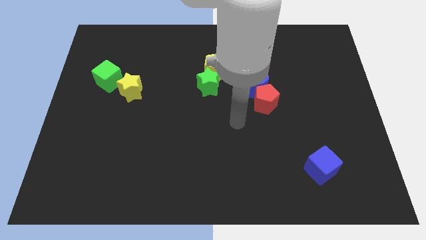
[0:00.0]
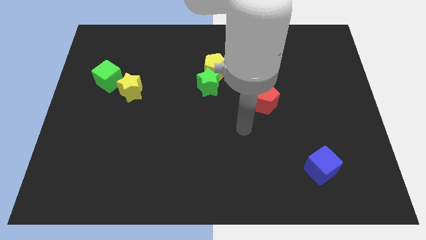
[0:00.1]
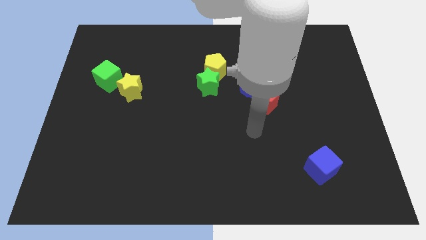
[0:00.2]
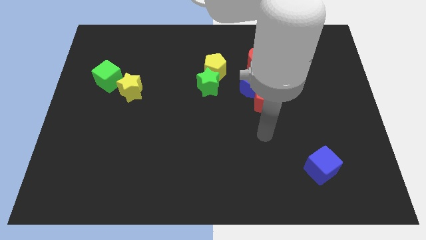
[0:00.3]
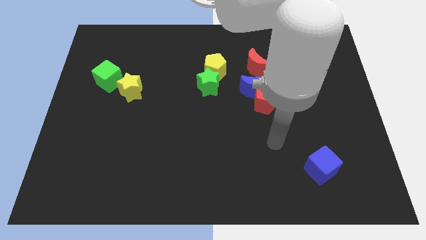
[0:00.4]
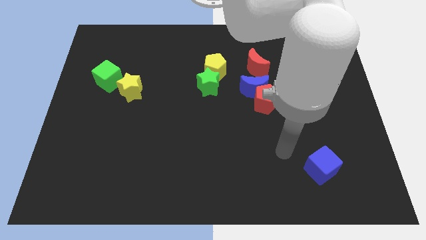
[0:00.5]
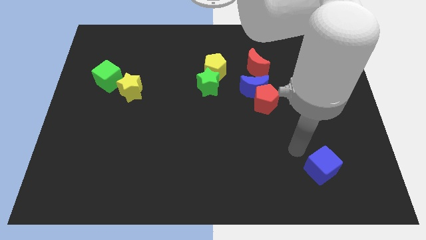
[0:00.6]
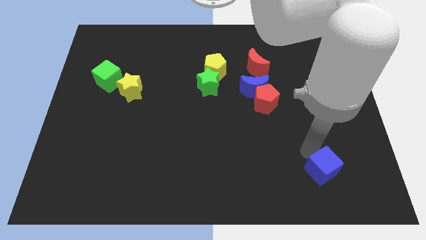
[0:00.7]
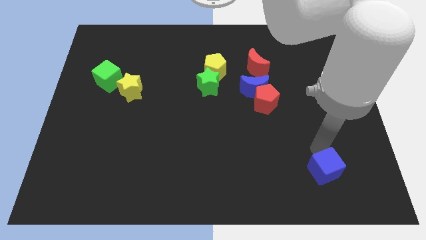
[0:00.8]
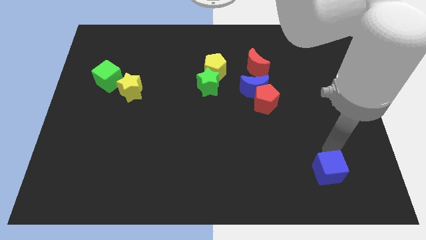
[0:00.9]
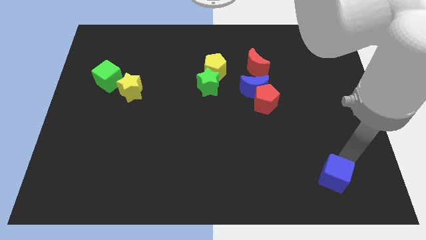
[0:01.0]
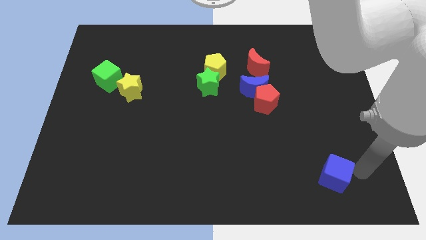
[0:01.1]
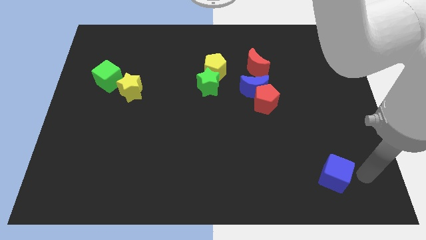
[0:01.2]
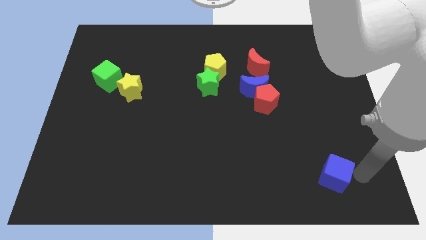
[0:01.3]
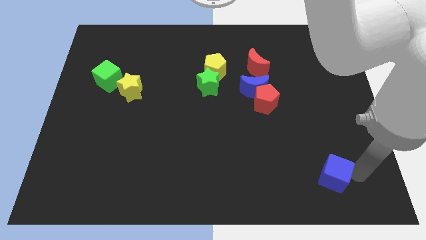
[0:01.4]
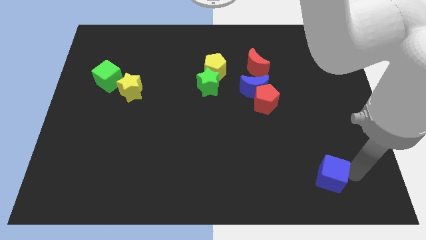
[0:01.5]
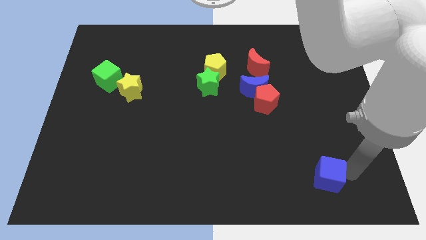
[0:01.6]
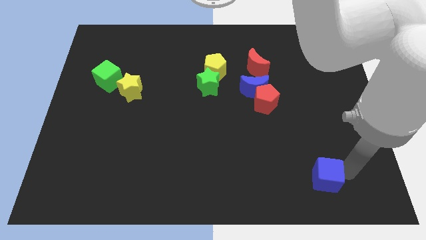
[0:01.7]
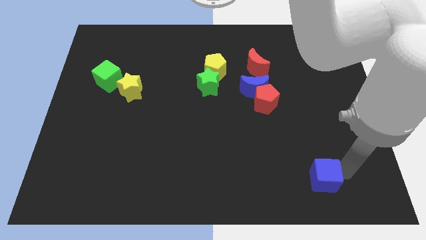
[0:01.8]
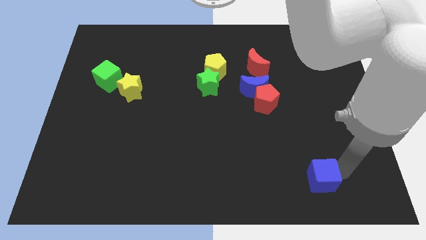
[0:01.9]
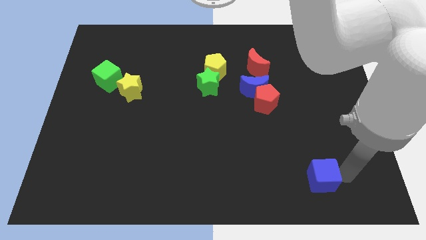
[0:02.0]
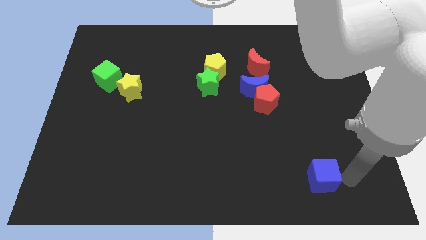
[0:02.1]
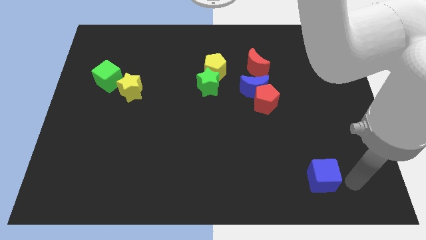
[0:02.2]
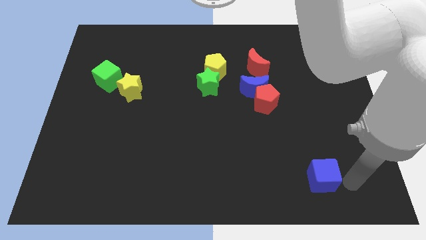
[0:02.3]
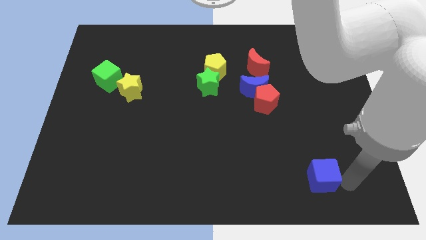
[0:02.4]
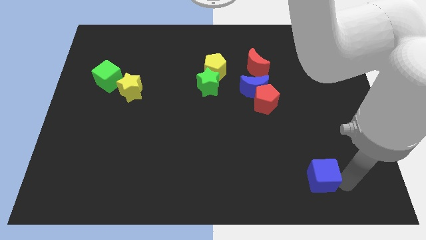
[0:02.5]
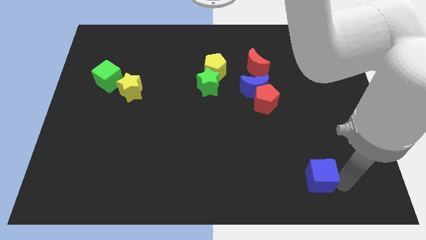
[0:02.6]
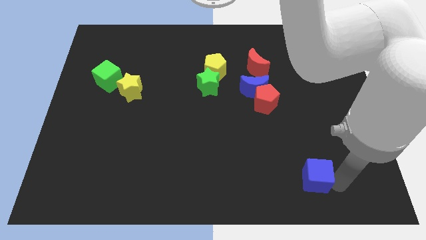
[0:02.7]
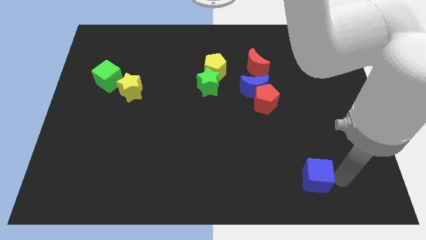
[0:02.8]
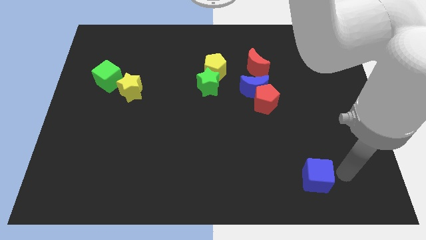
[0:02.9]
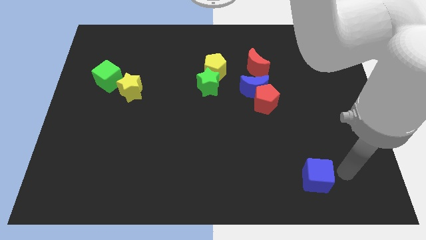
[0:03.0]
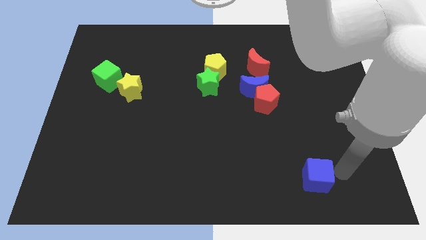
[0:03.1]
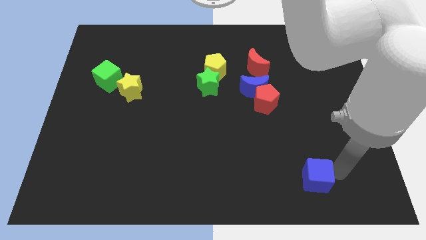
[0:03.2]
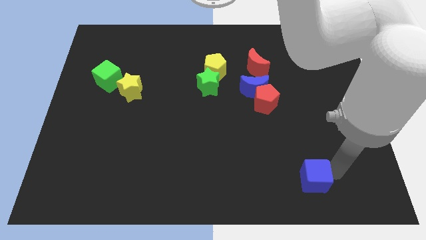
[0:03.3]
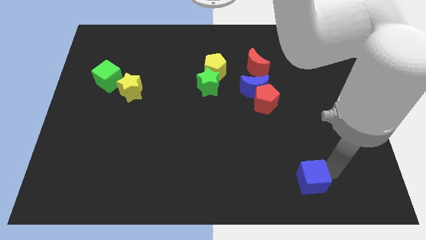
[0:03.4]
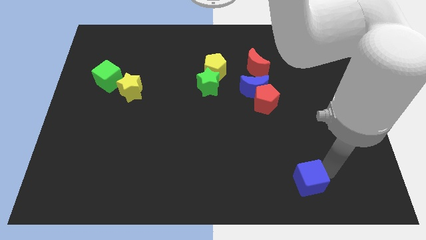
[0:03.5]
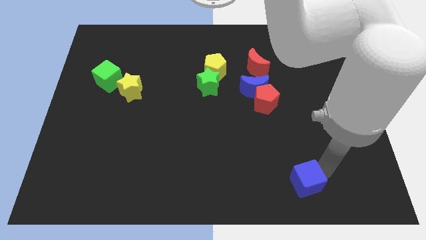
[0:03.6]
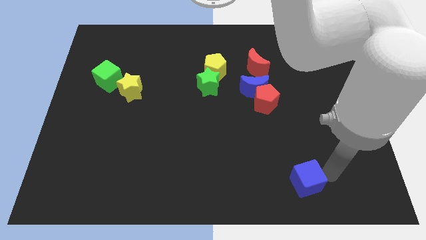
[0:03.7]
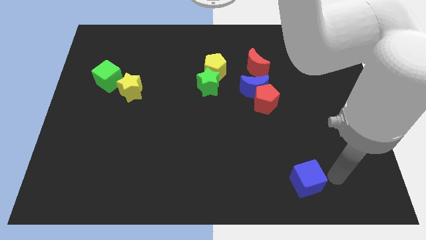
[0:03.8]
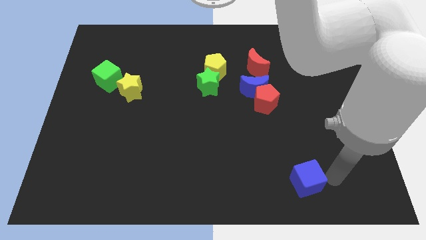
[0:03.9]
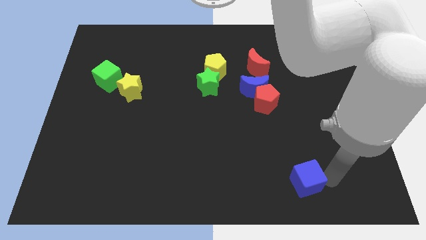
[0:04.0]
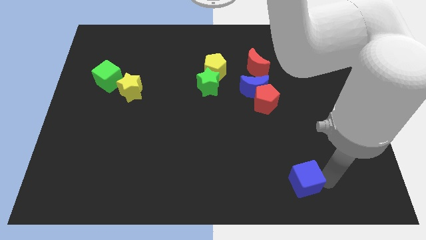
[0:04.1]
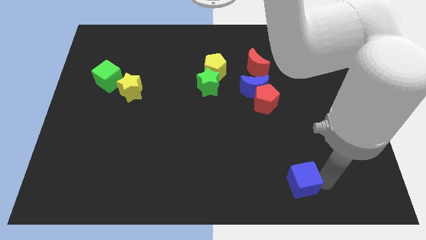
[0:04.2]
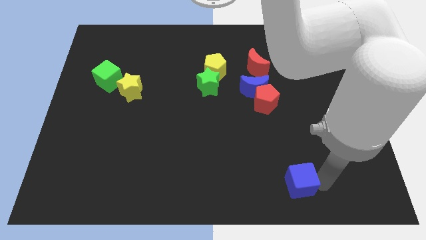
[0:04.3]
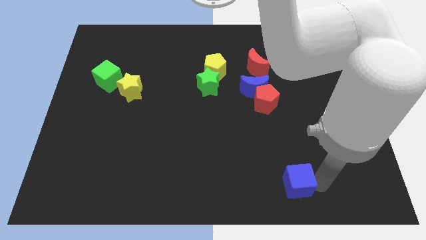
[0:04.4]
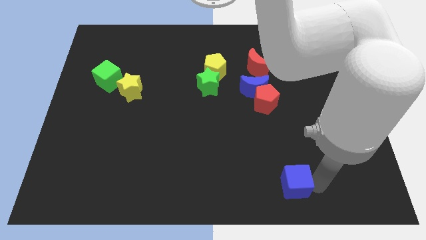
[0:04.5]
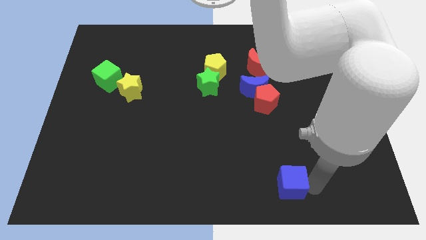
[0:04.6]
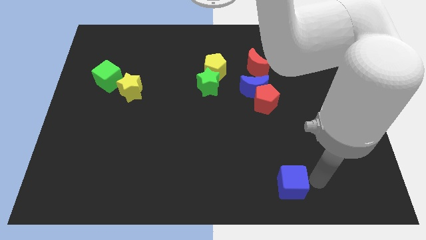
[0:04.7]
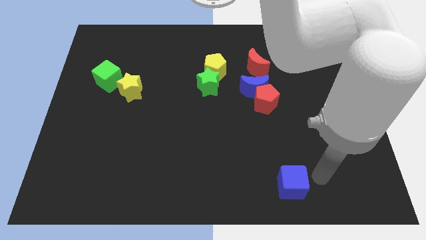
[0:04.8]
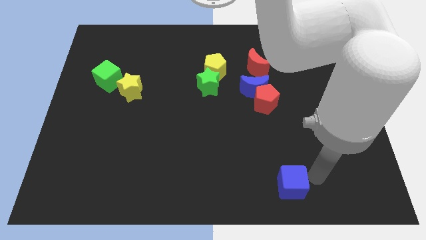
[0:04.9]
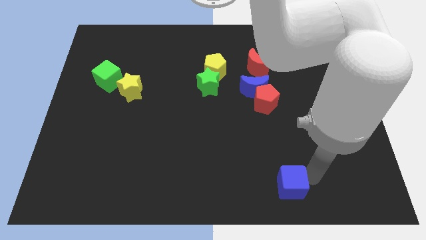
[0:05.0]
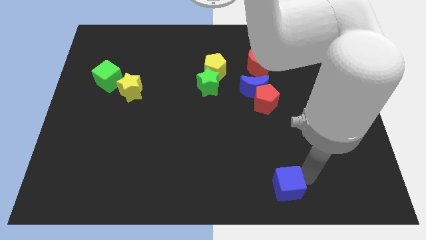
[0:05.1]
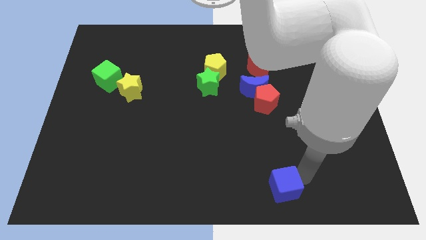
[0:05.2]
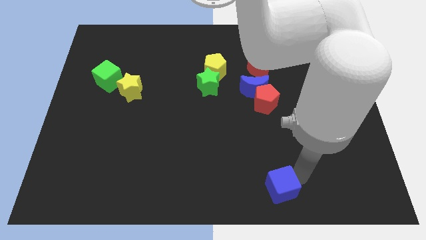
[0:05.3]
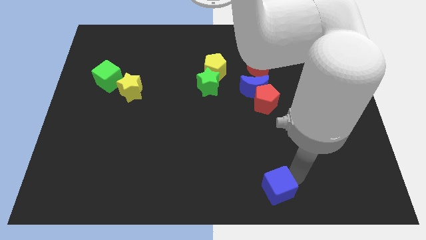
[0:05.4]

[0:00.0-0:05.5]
slide the blue cube to the bottom

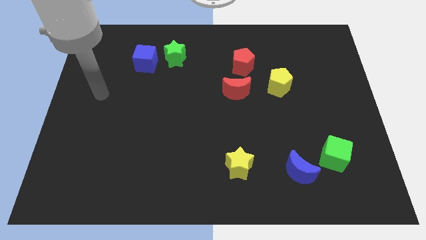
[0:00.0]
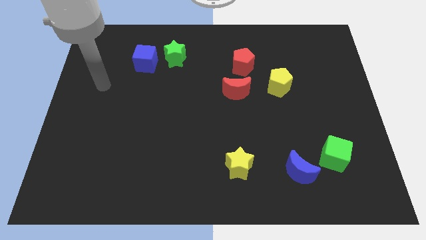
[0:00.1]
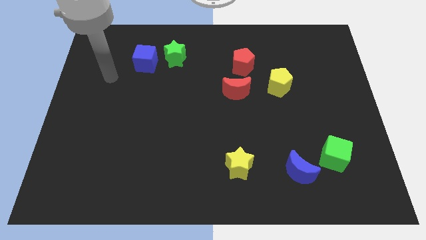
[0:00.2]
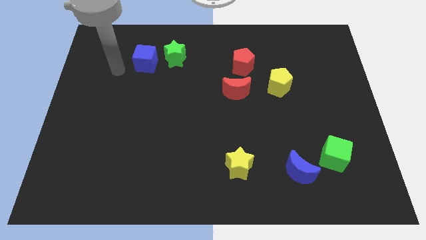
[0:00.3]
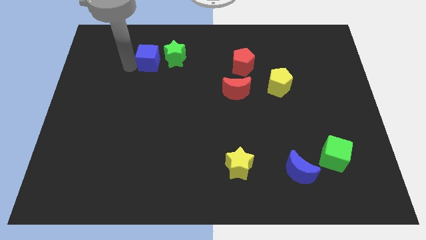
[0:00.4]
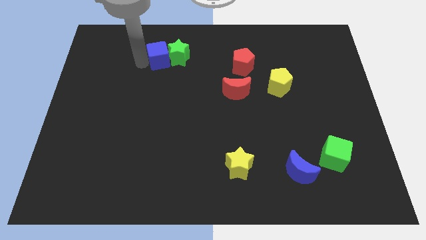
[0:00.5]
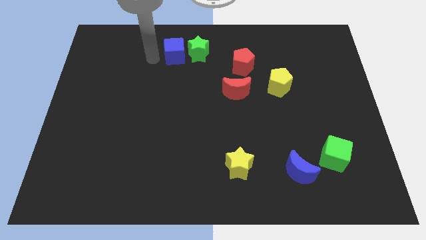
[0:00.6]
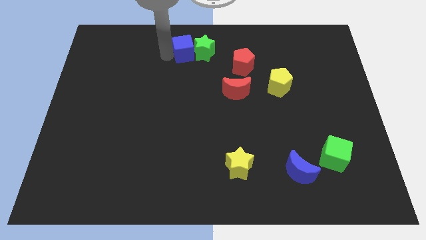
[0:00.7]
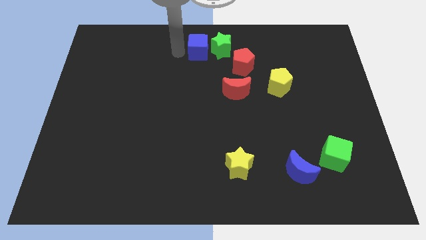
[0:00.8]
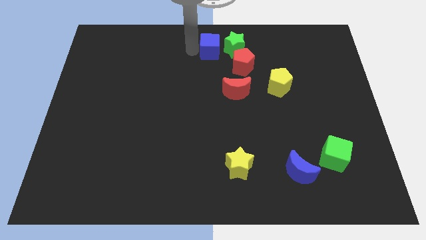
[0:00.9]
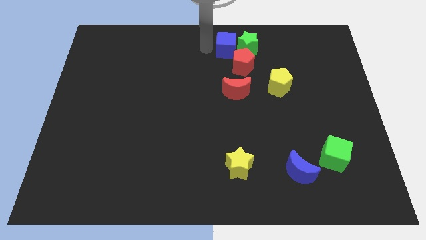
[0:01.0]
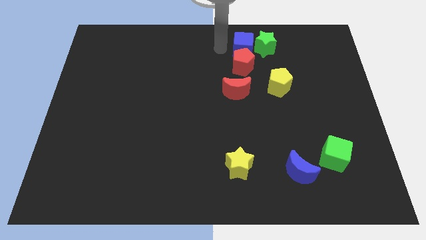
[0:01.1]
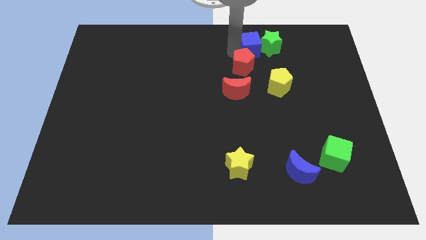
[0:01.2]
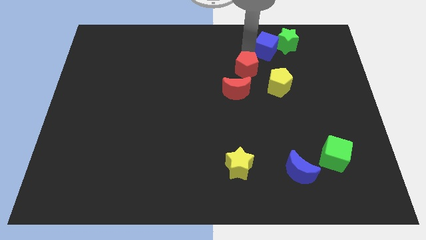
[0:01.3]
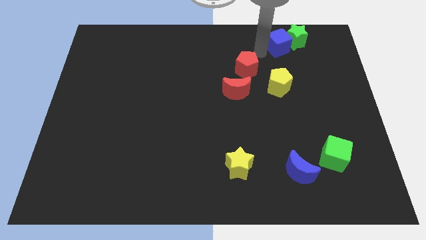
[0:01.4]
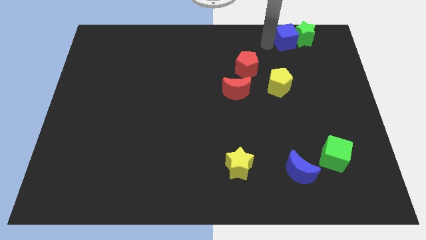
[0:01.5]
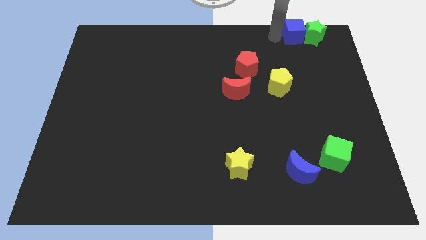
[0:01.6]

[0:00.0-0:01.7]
put the green star to the upper right corner
